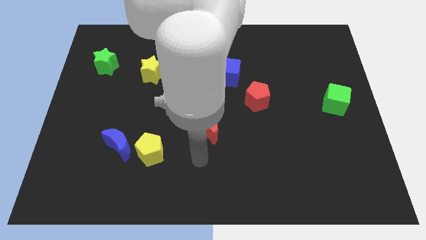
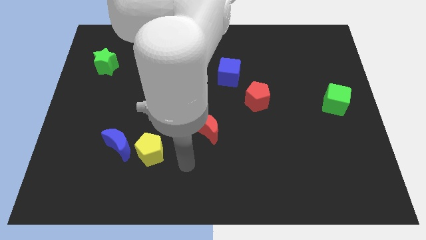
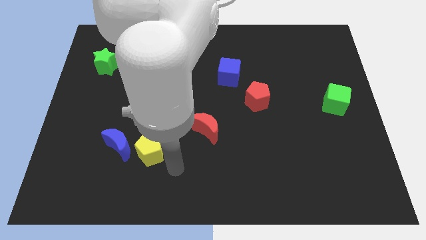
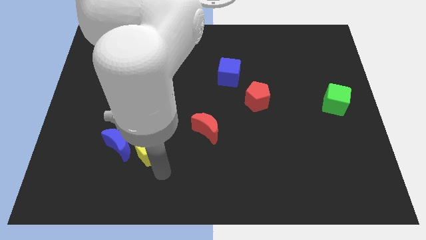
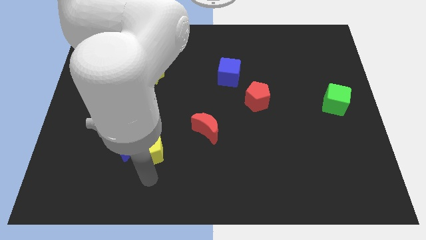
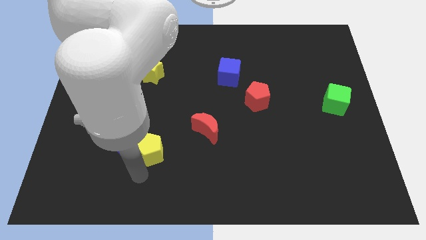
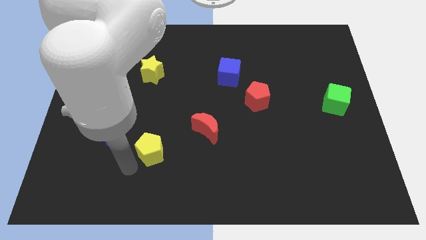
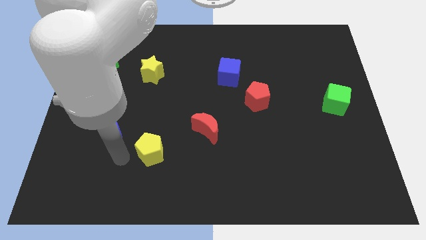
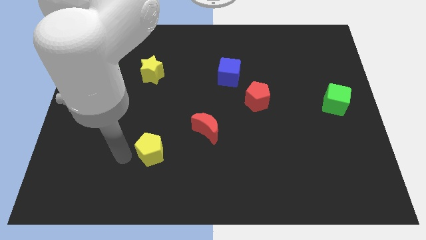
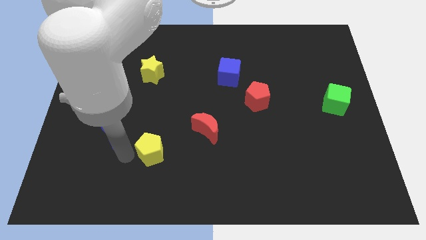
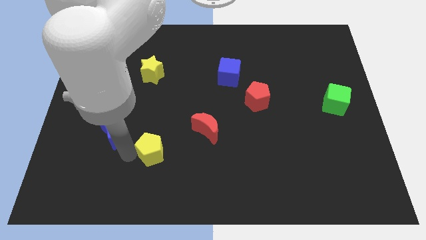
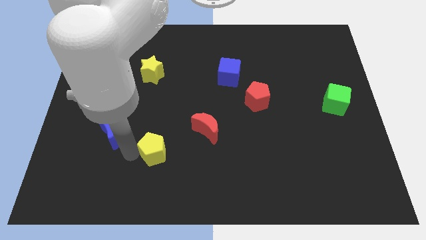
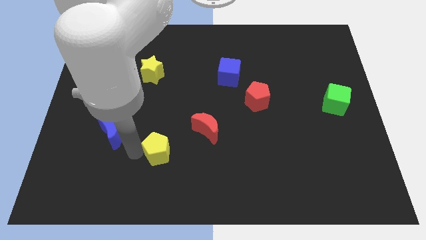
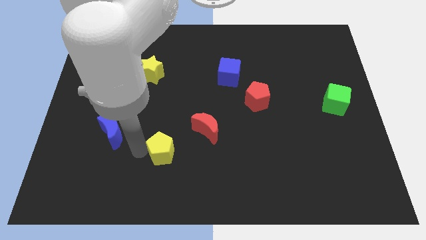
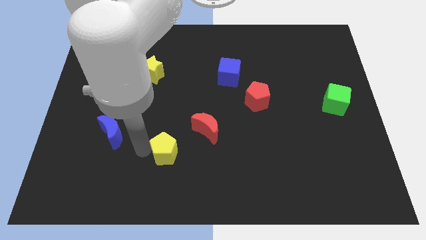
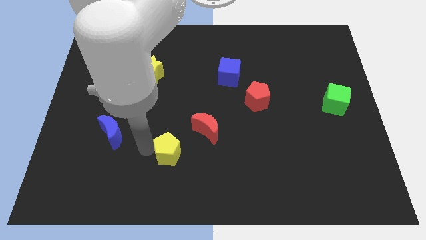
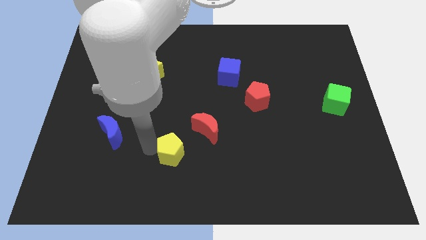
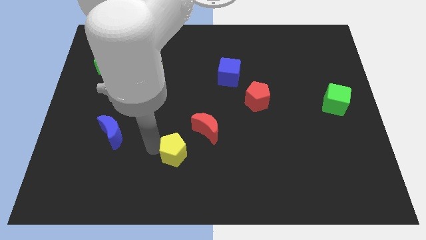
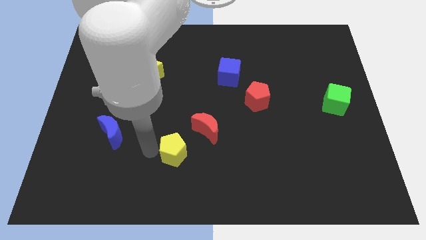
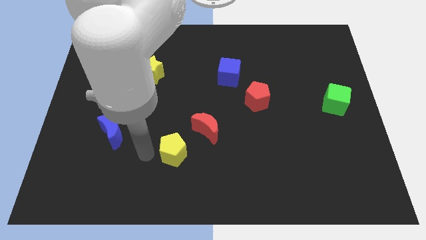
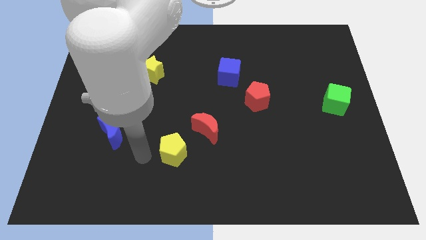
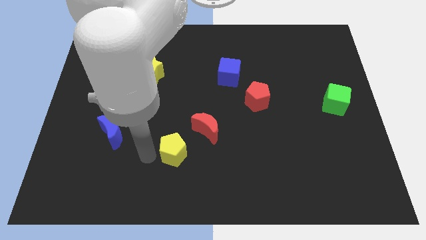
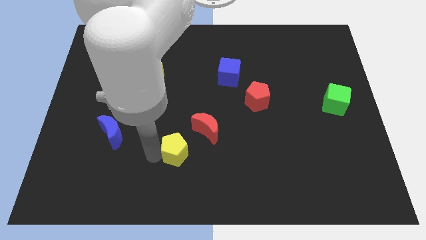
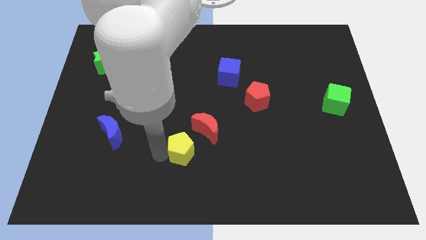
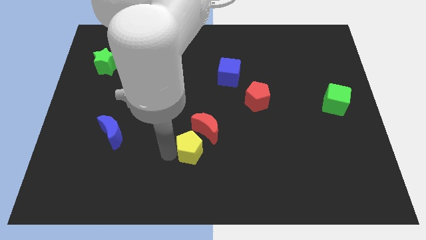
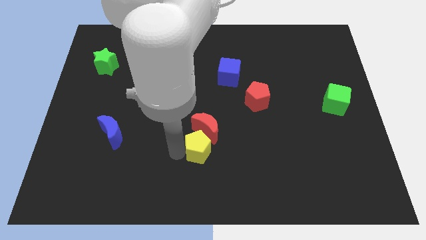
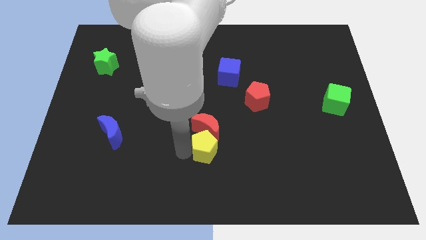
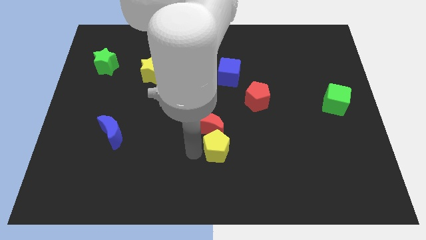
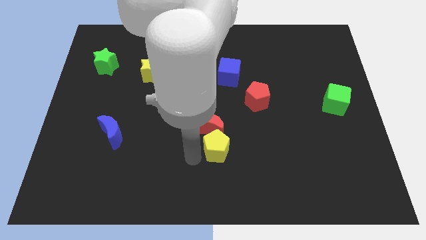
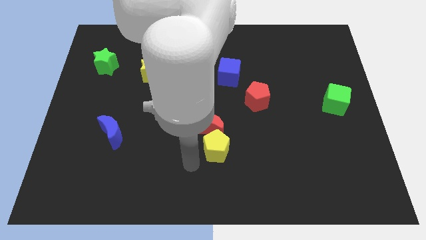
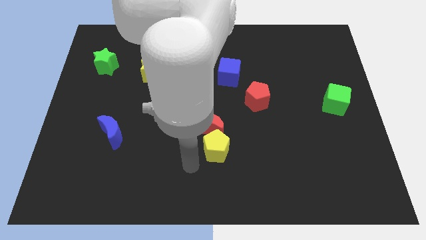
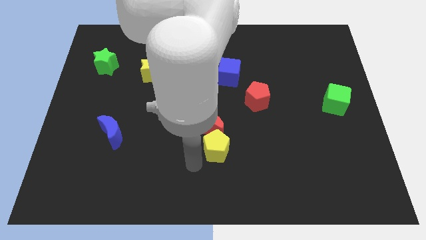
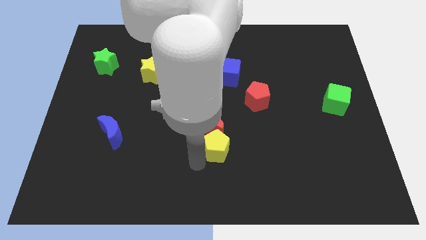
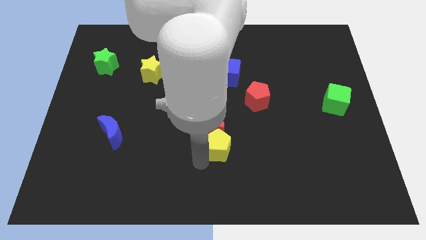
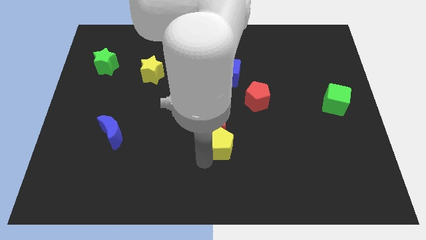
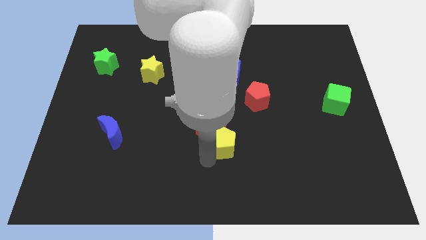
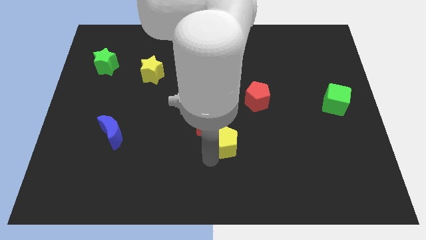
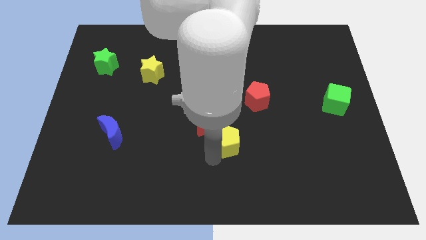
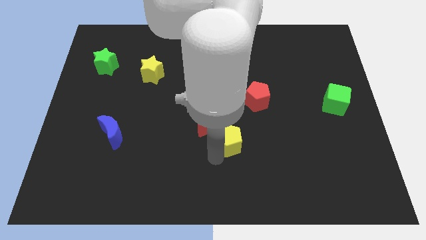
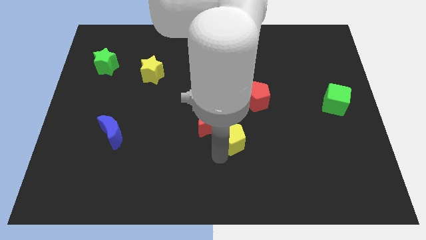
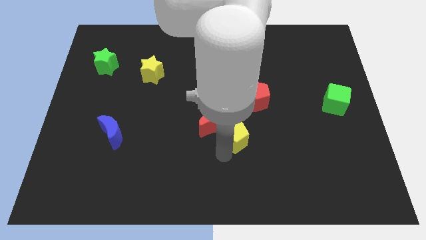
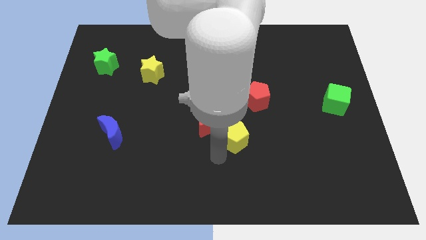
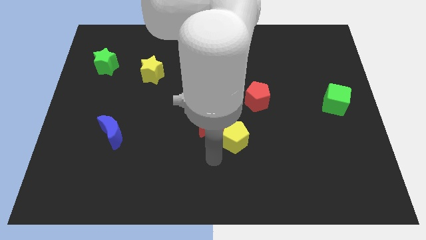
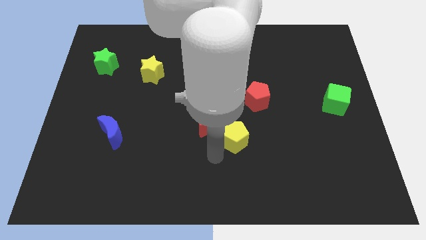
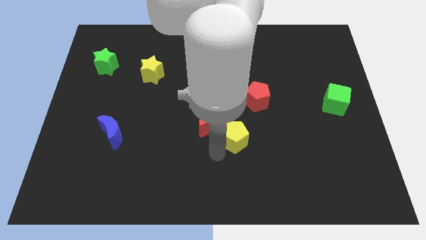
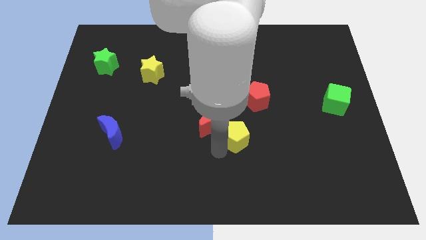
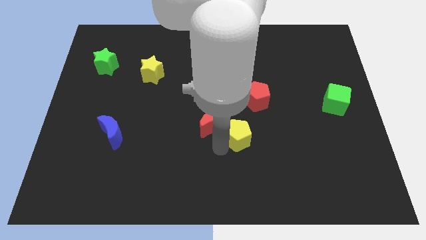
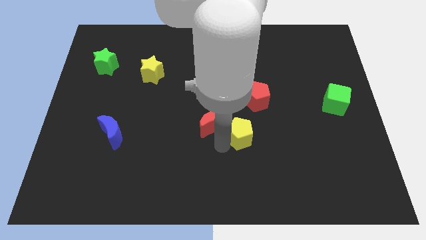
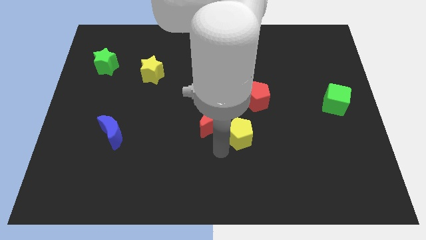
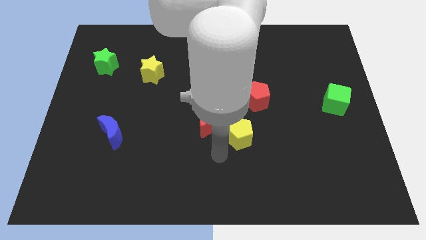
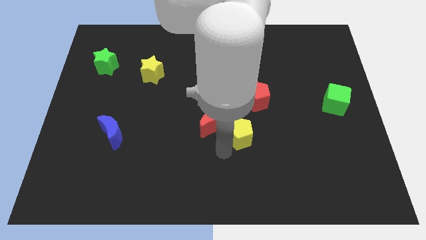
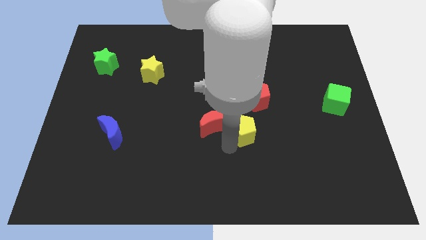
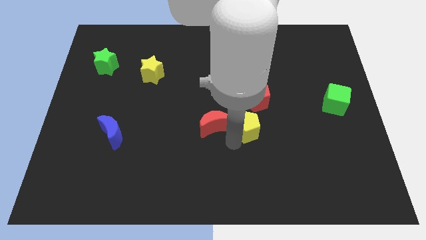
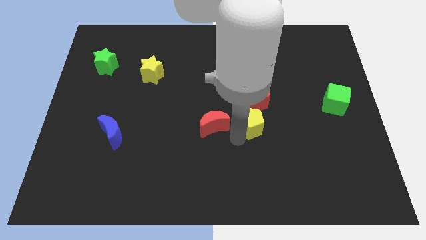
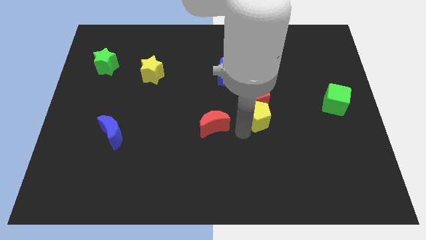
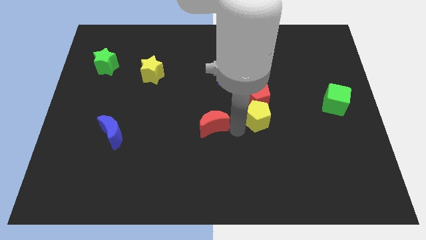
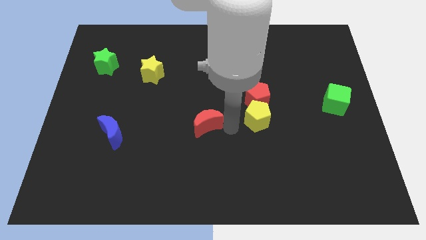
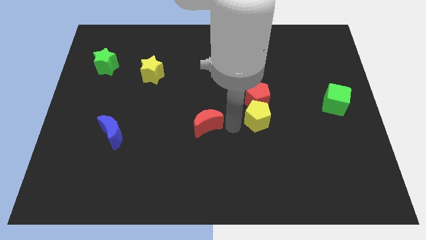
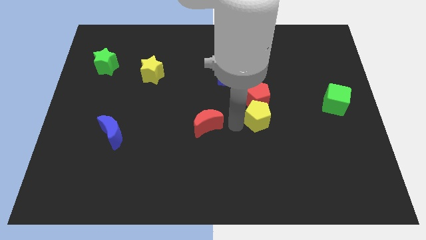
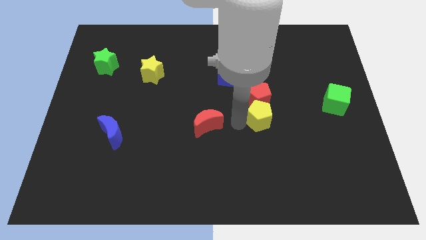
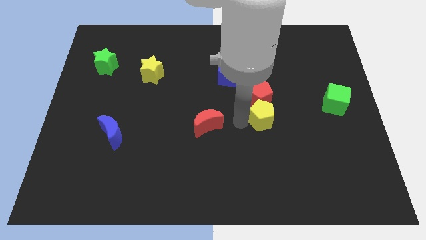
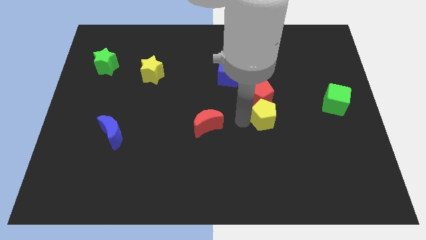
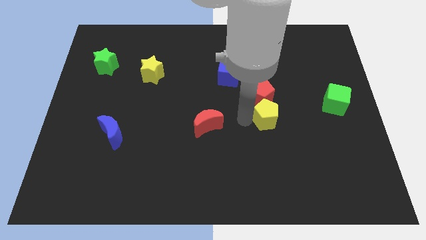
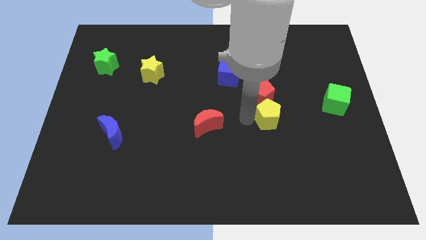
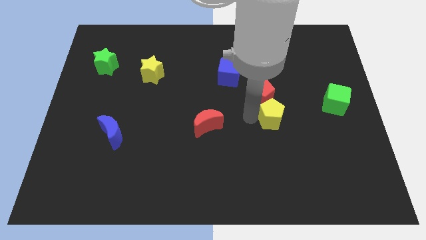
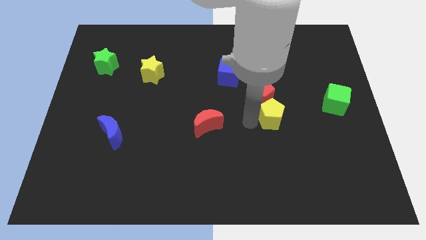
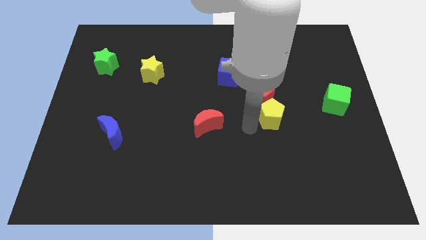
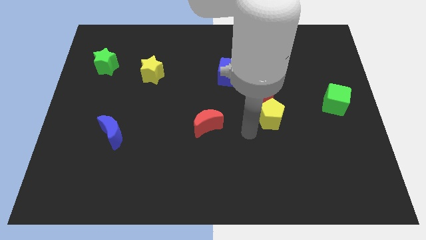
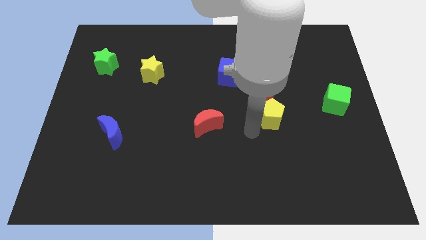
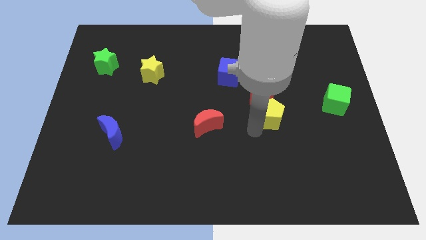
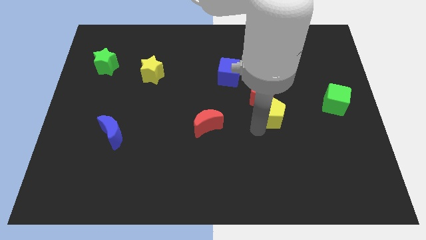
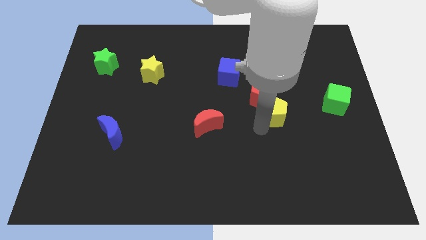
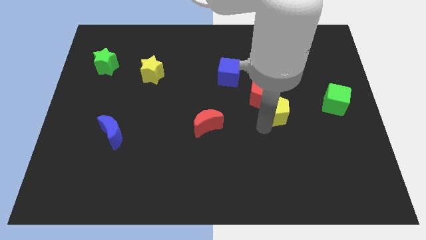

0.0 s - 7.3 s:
put the yellow pentagon just left of the green cube

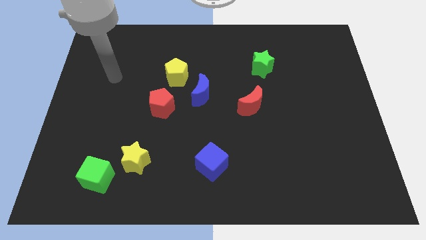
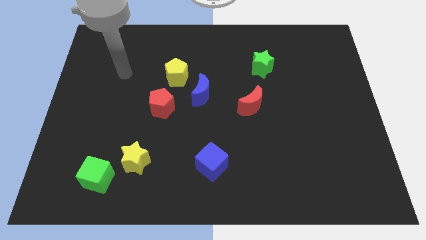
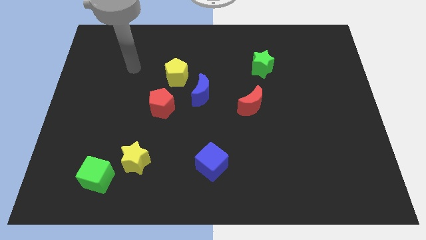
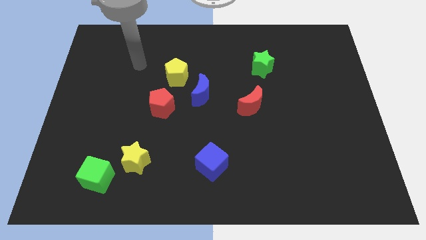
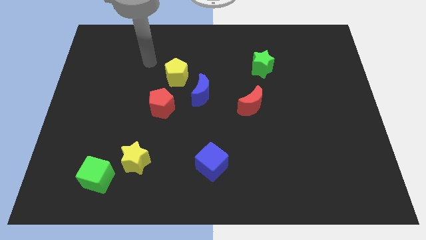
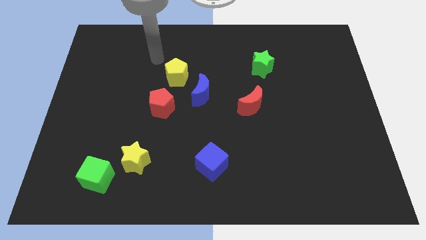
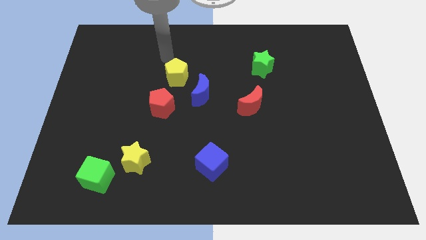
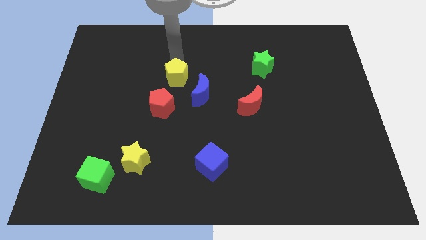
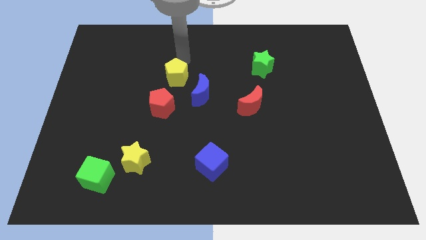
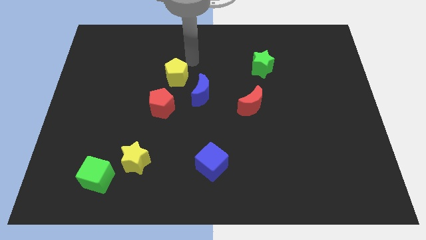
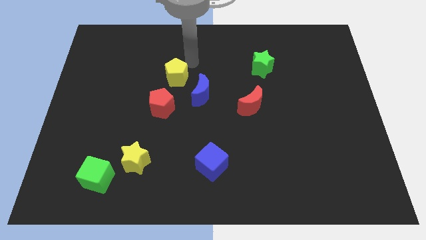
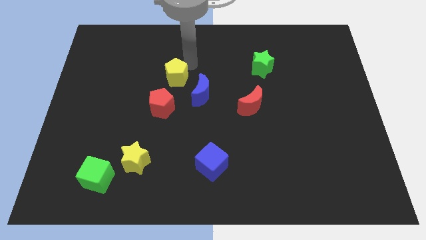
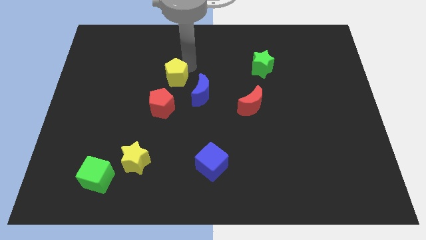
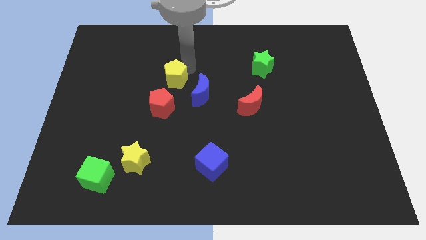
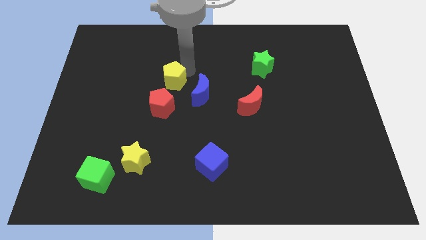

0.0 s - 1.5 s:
slide the yellow pentagon just left of the blue moon
